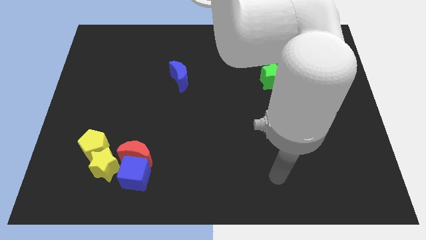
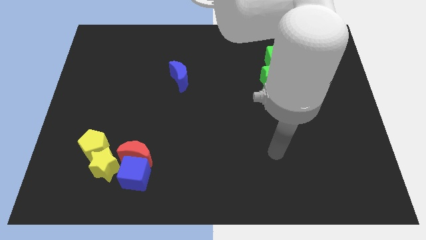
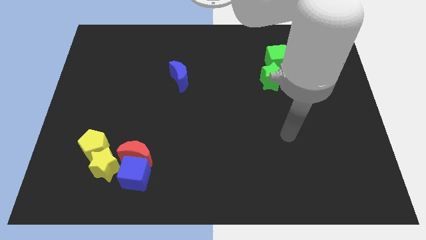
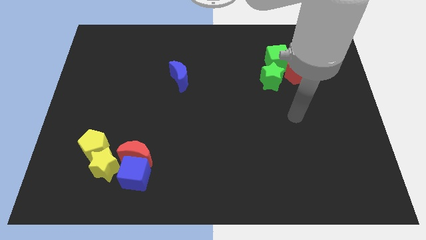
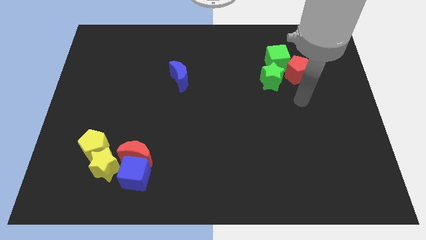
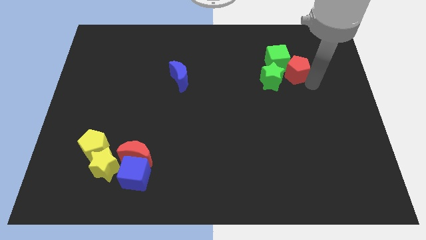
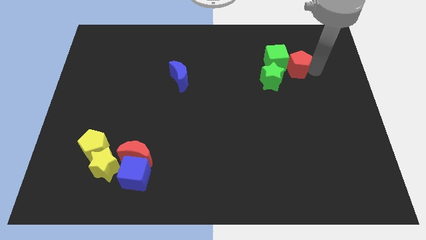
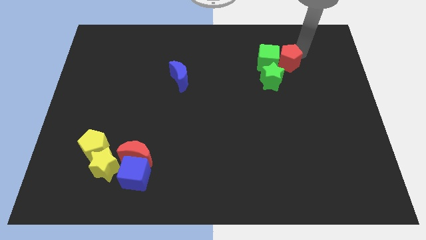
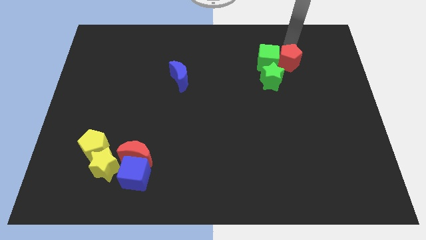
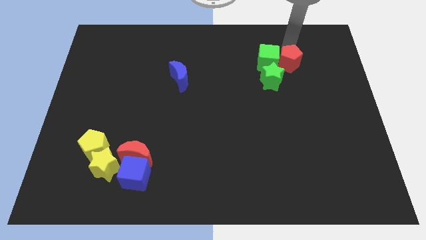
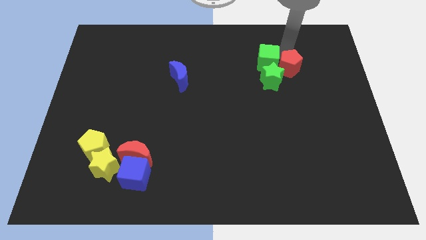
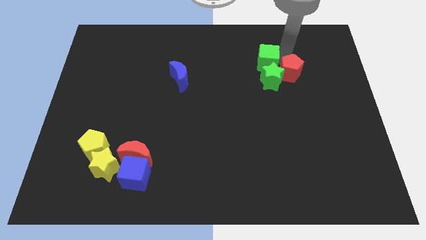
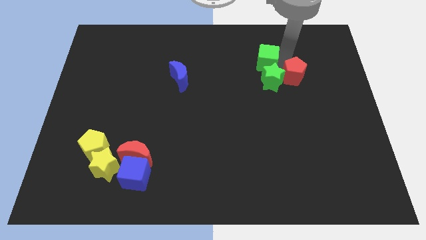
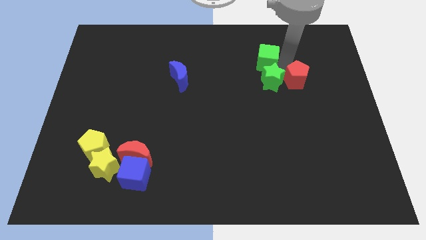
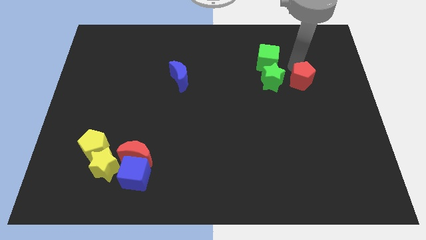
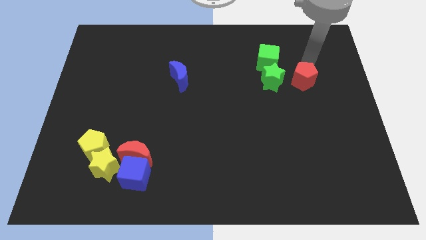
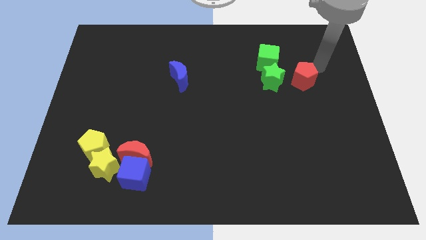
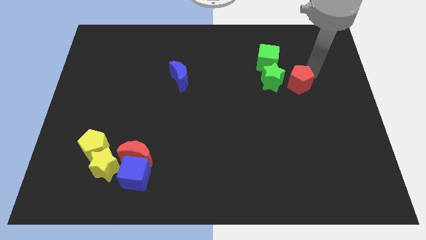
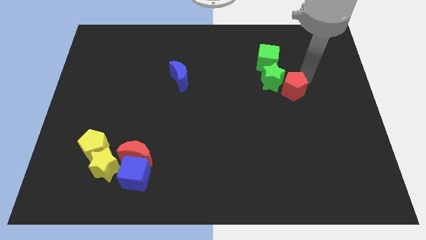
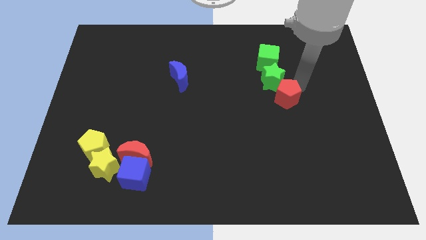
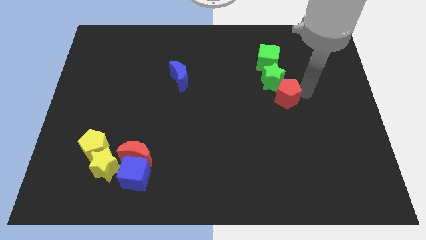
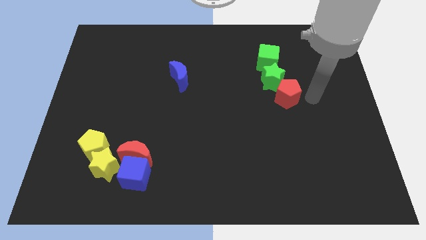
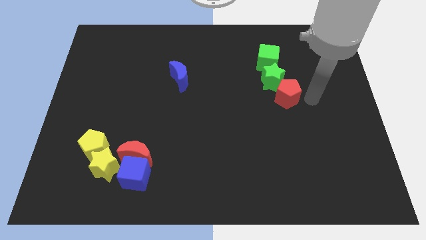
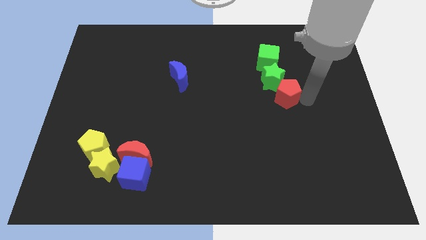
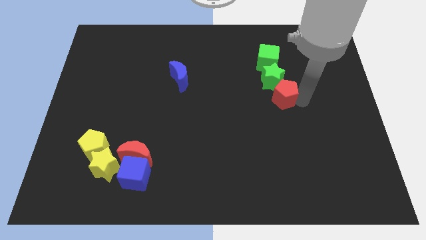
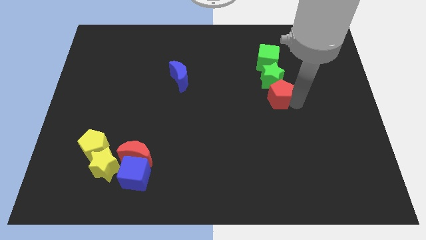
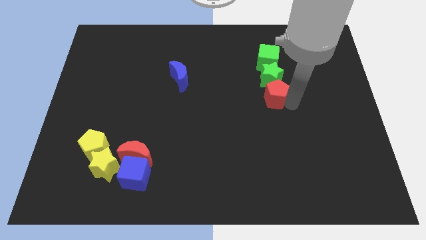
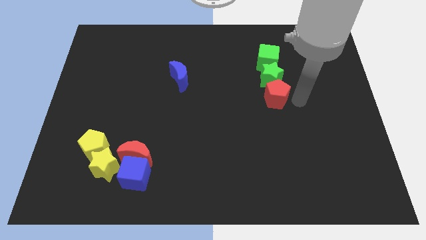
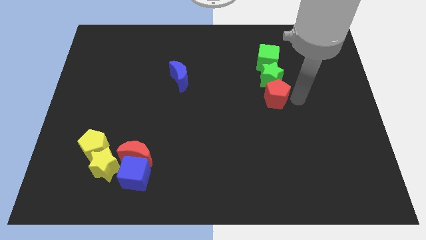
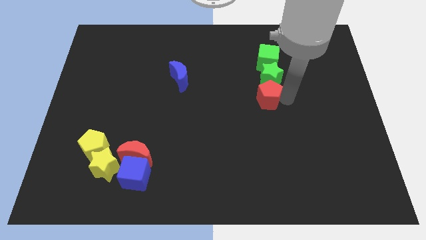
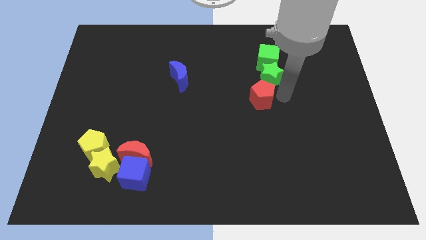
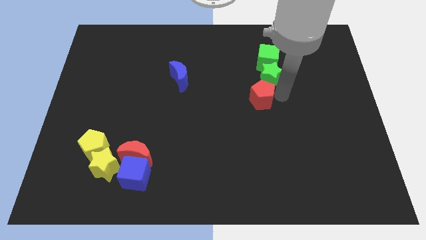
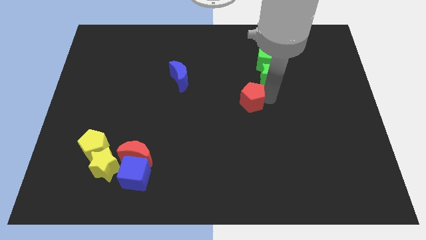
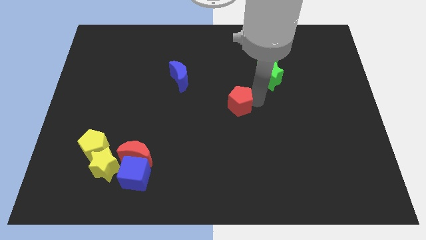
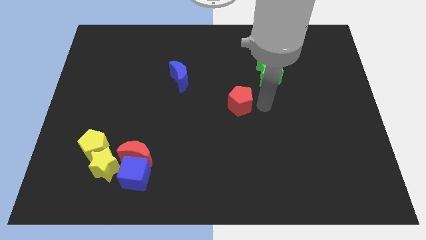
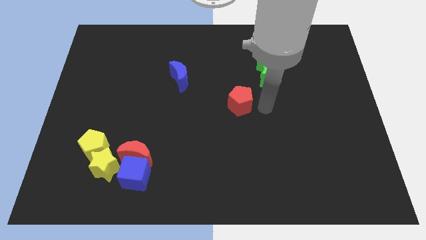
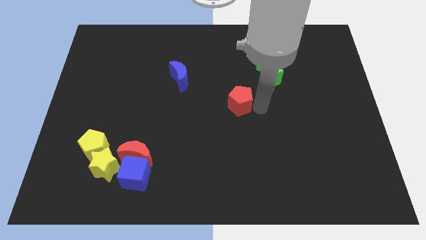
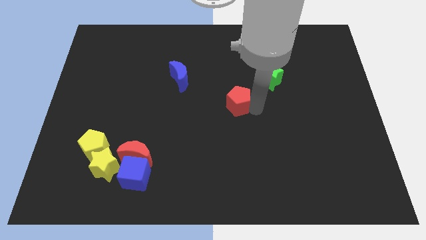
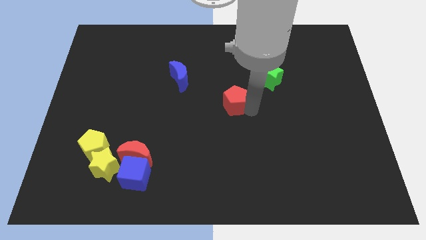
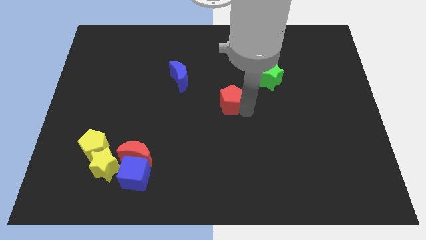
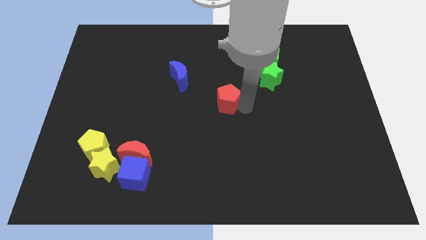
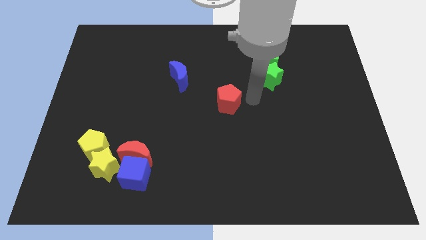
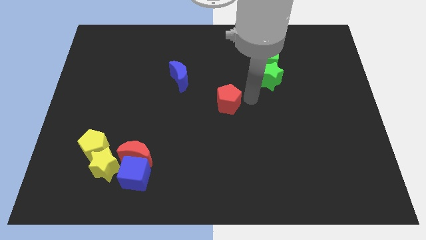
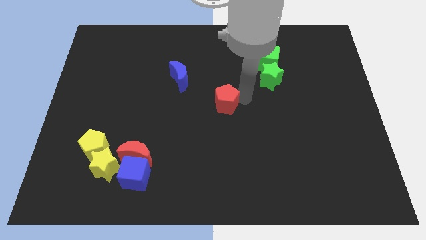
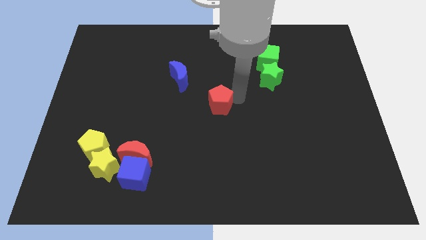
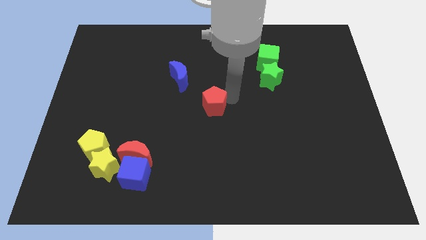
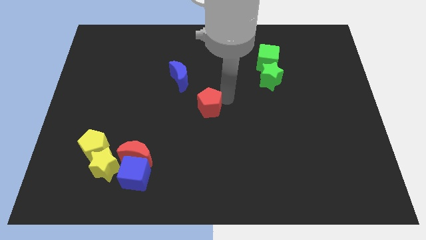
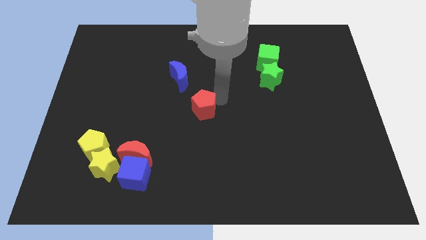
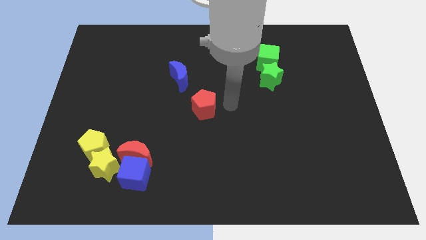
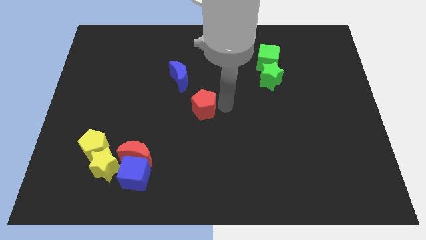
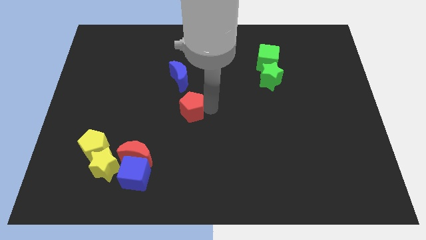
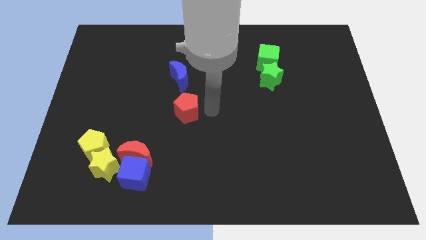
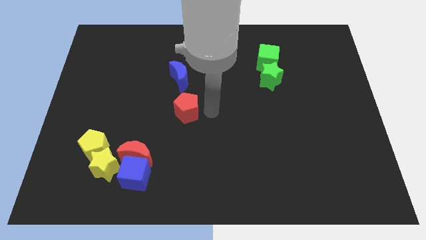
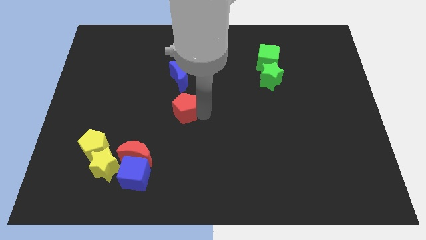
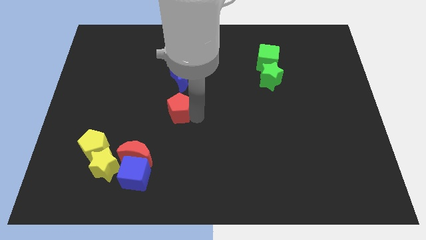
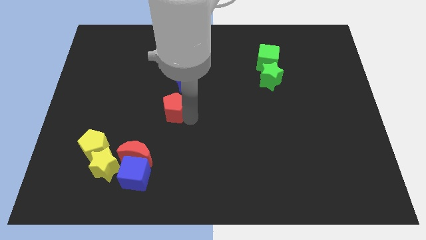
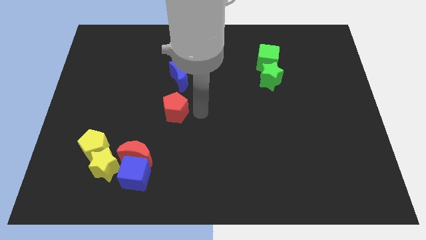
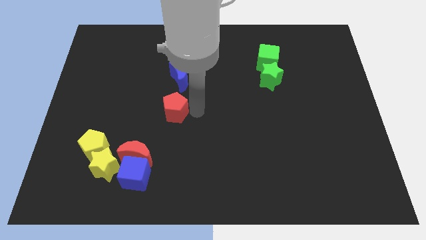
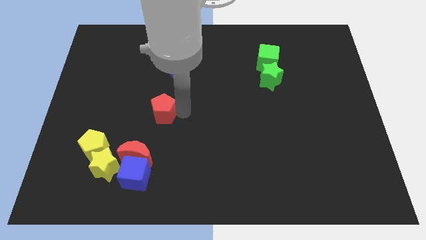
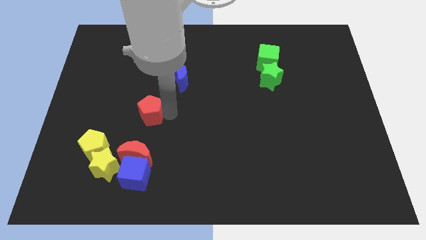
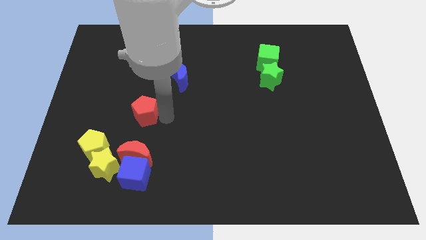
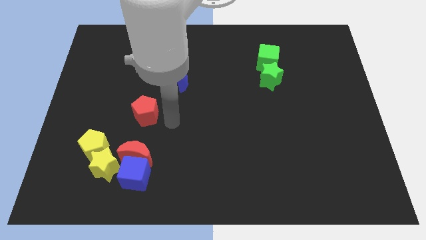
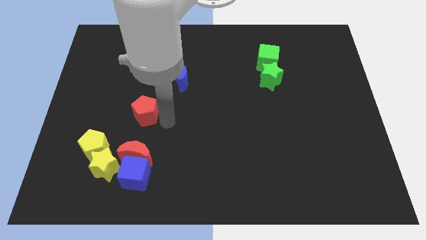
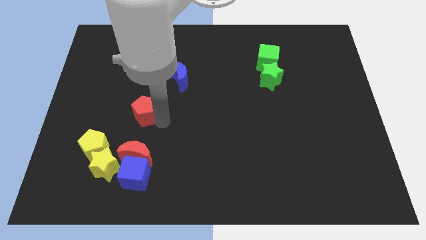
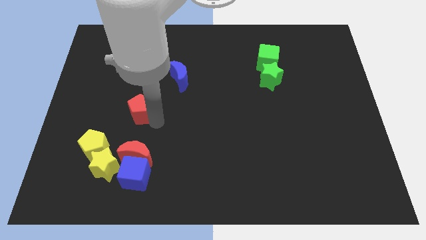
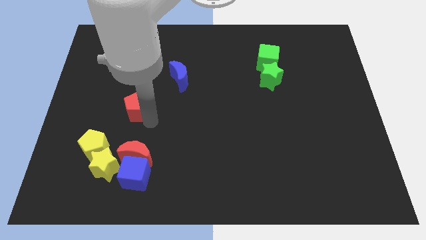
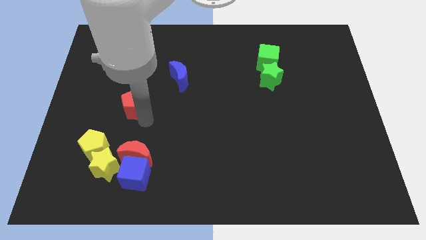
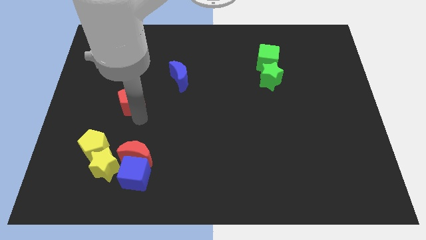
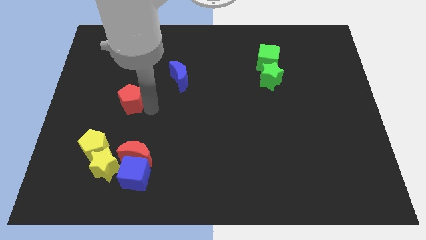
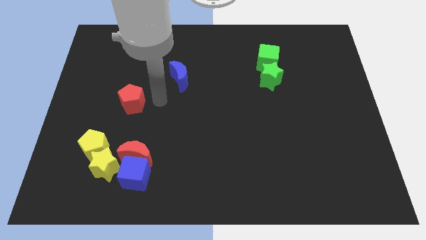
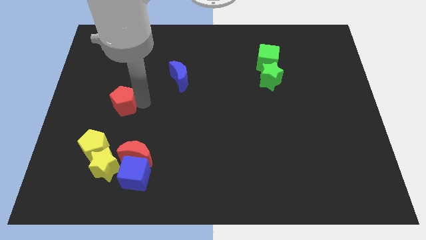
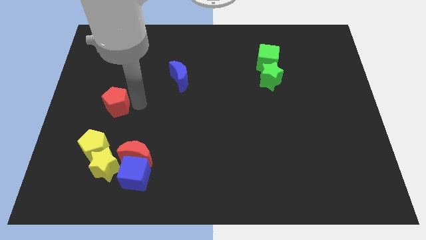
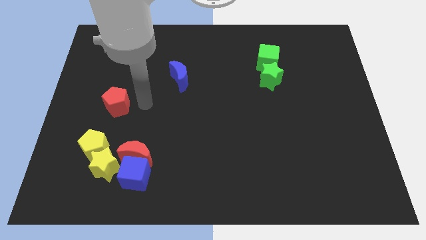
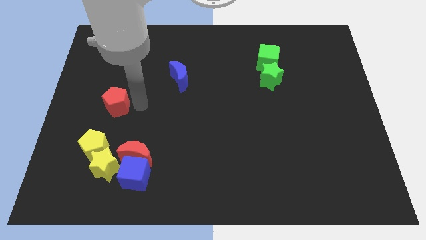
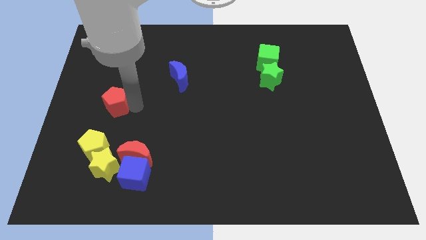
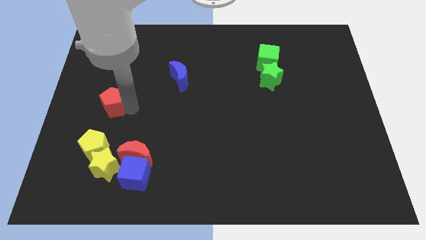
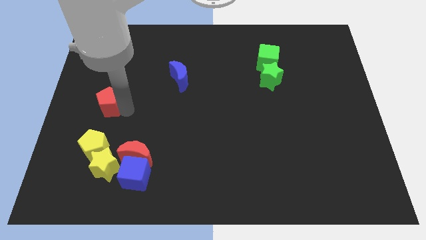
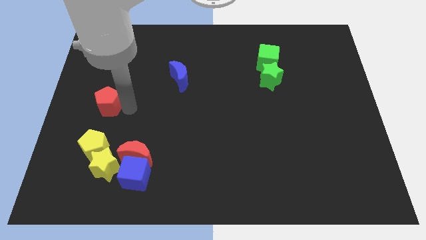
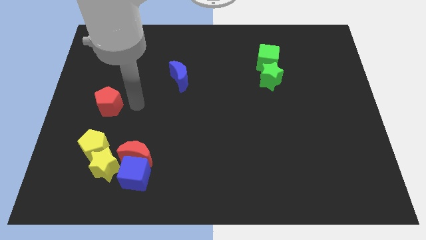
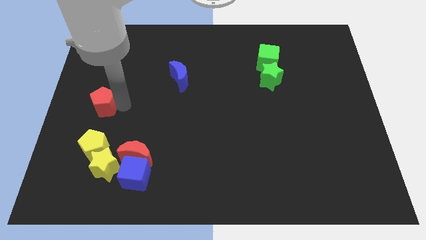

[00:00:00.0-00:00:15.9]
put the red pentagon to the left side of the board
